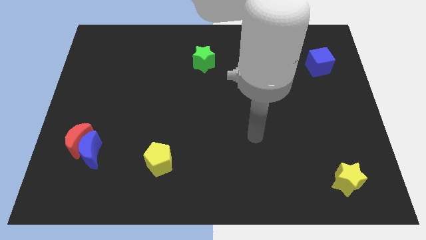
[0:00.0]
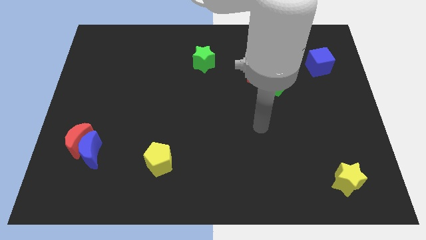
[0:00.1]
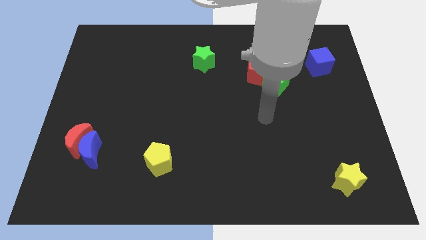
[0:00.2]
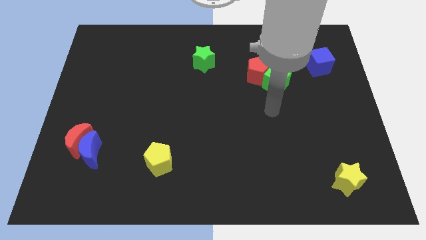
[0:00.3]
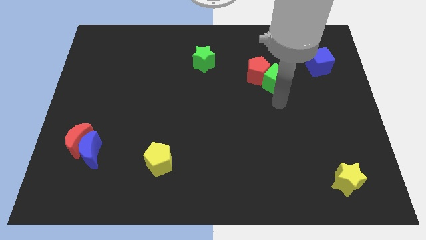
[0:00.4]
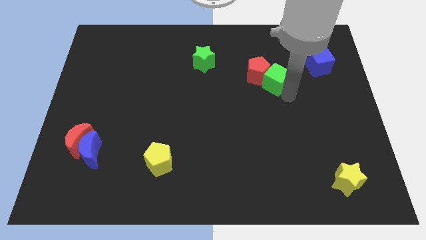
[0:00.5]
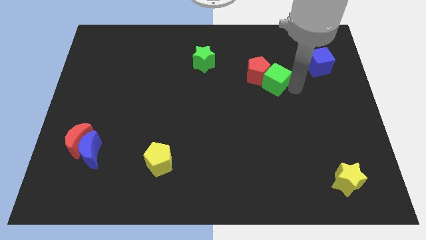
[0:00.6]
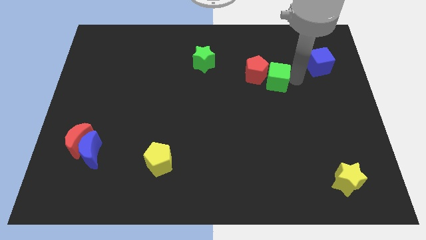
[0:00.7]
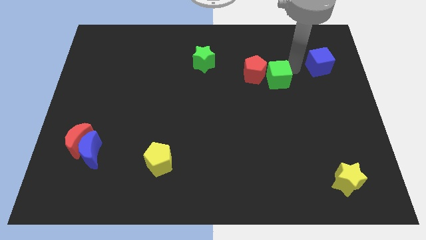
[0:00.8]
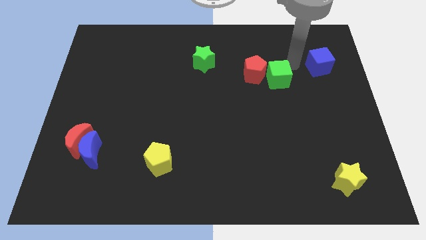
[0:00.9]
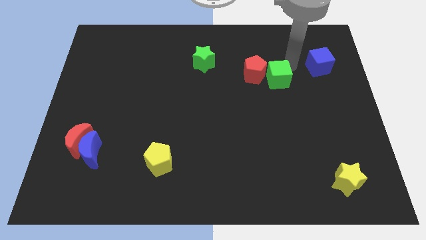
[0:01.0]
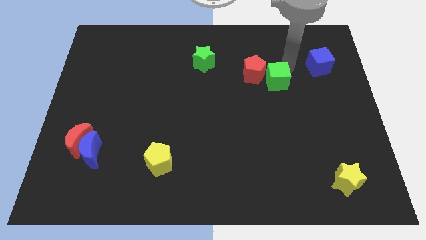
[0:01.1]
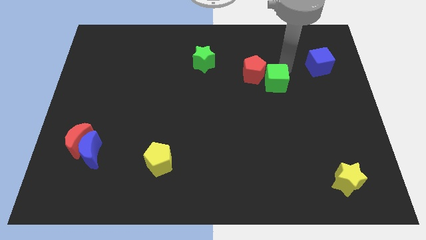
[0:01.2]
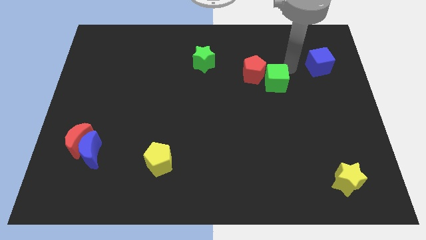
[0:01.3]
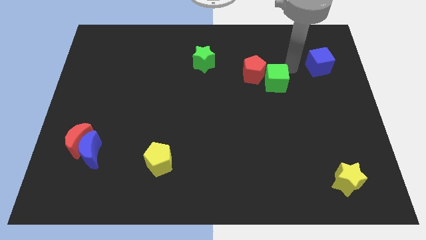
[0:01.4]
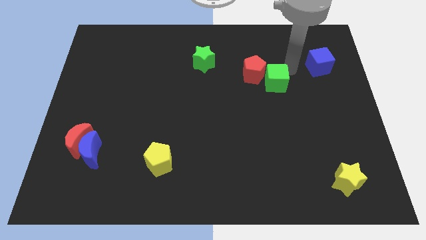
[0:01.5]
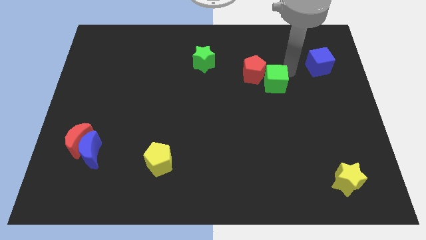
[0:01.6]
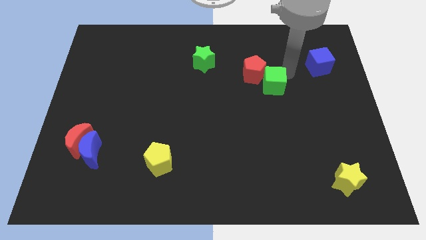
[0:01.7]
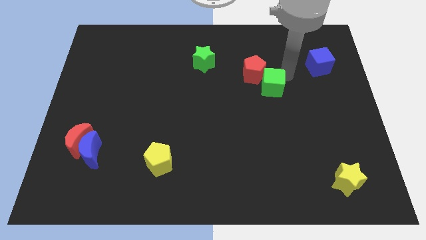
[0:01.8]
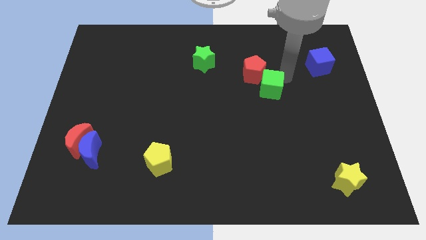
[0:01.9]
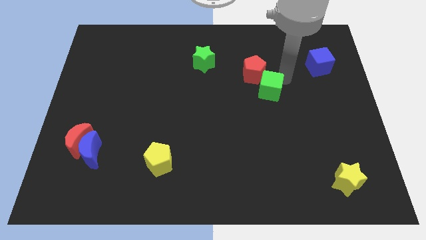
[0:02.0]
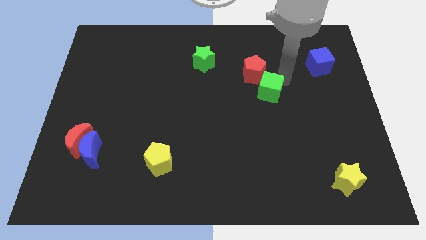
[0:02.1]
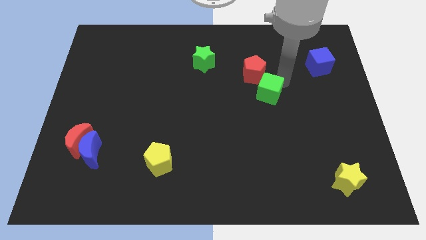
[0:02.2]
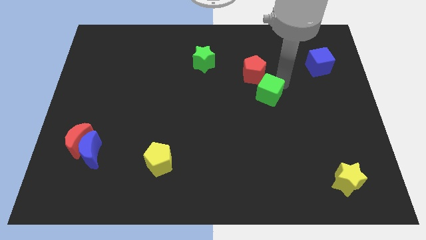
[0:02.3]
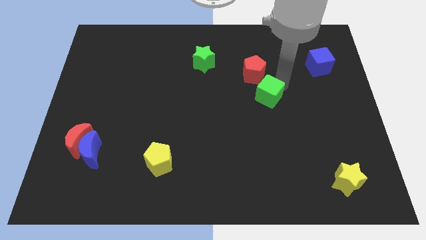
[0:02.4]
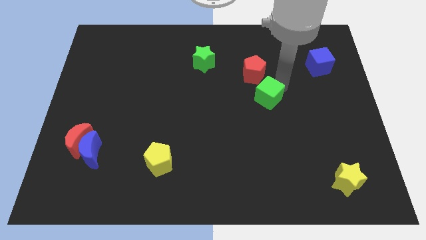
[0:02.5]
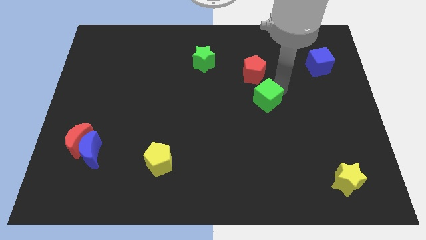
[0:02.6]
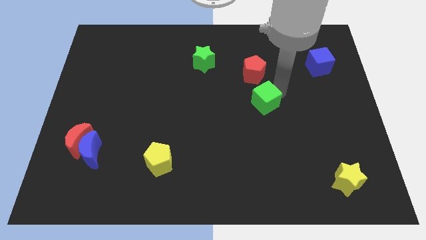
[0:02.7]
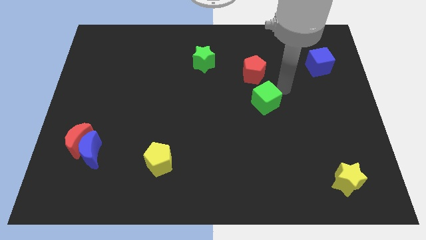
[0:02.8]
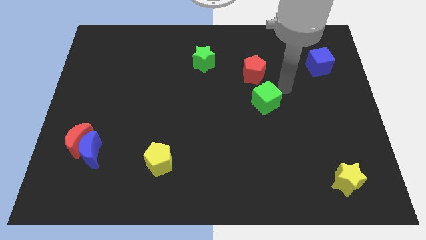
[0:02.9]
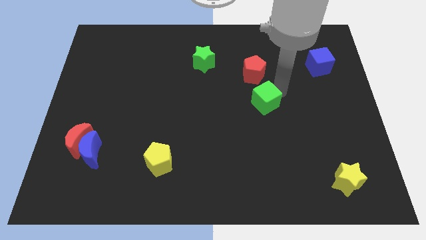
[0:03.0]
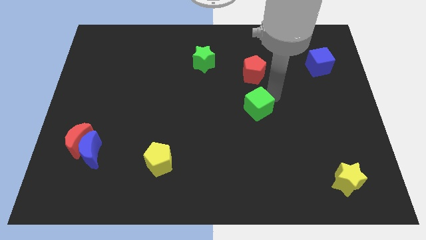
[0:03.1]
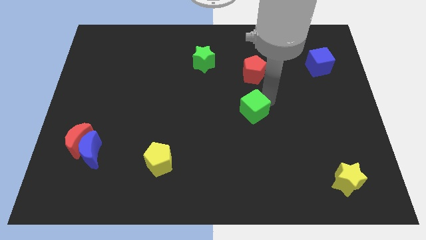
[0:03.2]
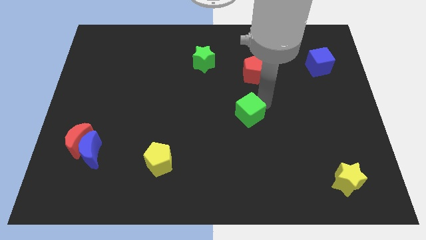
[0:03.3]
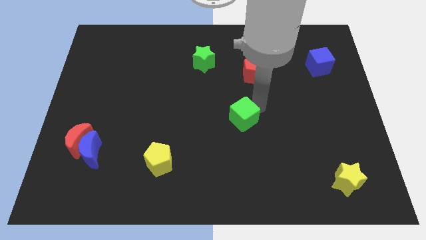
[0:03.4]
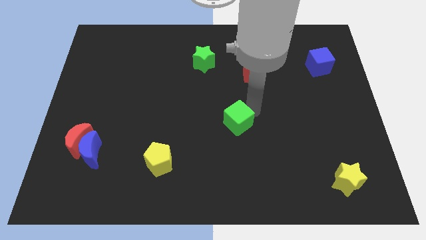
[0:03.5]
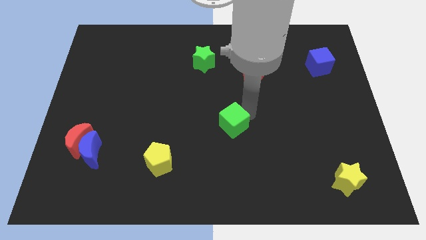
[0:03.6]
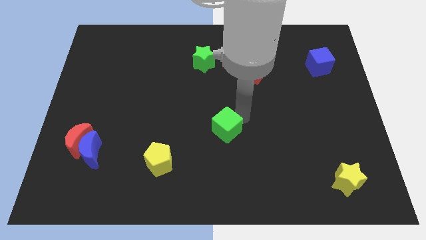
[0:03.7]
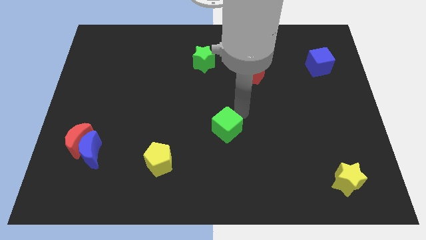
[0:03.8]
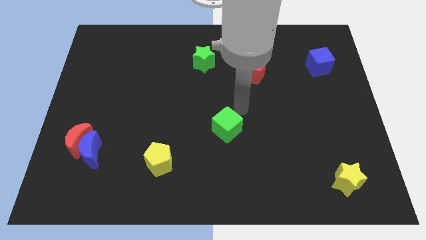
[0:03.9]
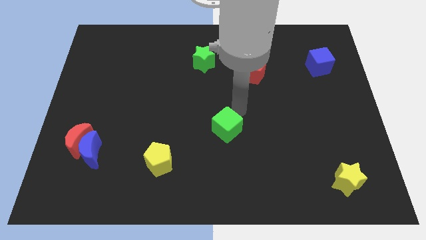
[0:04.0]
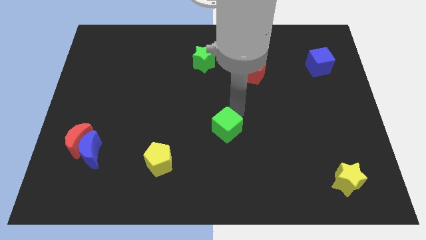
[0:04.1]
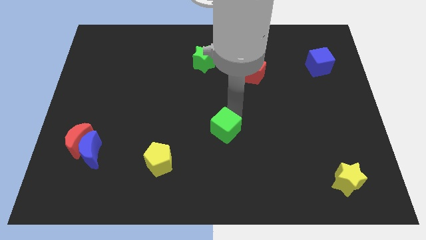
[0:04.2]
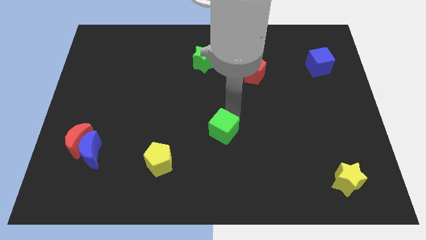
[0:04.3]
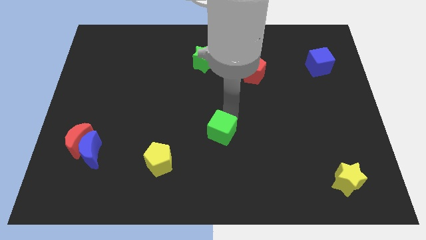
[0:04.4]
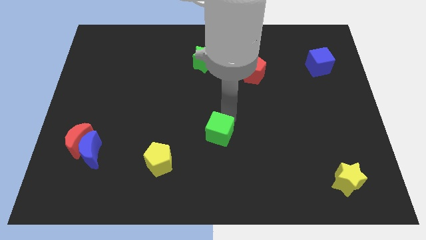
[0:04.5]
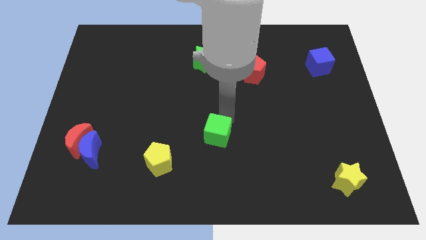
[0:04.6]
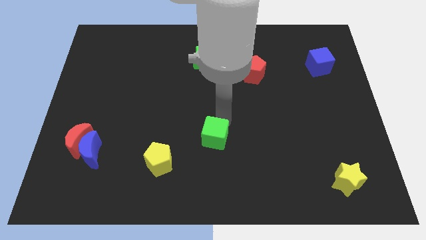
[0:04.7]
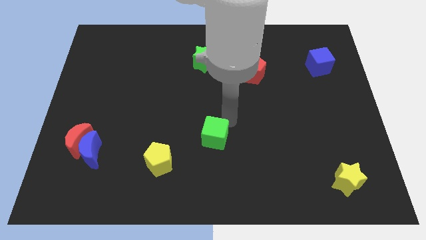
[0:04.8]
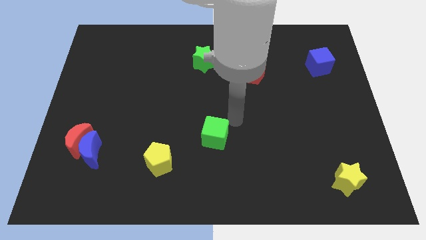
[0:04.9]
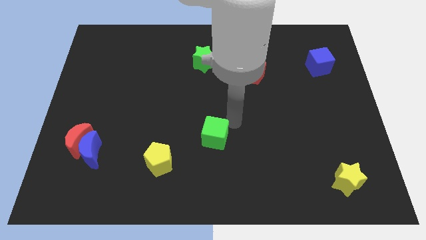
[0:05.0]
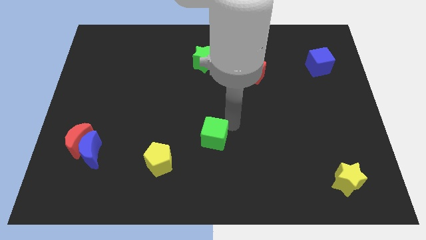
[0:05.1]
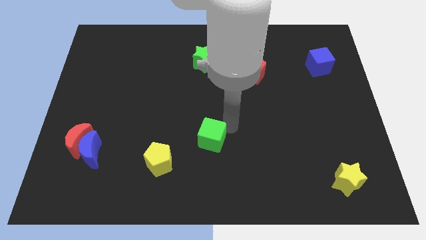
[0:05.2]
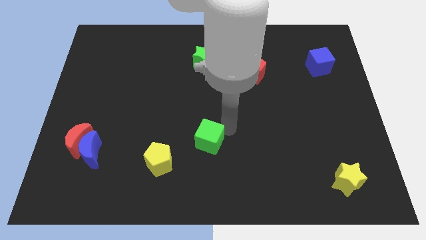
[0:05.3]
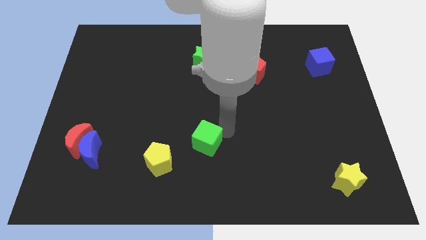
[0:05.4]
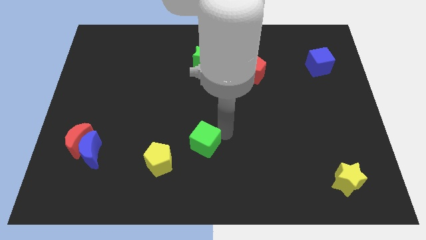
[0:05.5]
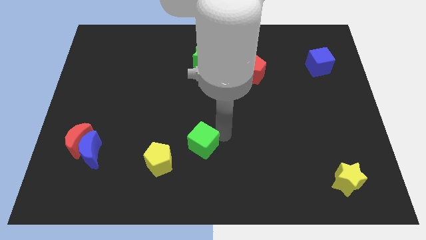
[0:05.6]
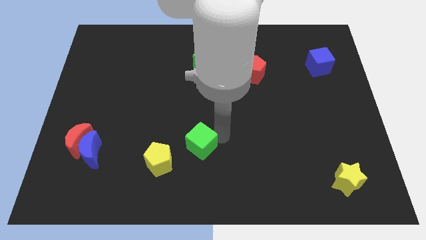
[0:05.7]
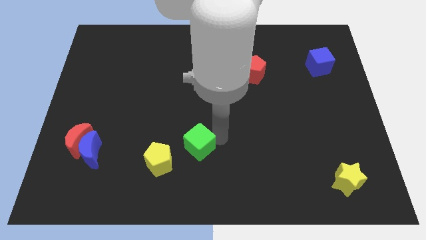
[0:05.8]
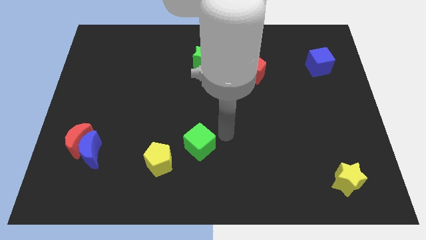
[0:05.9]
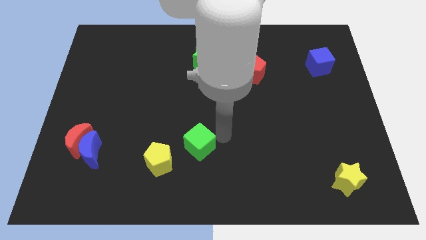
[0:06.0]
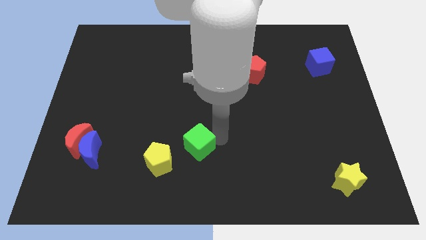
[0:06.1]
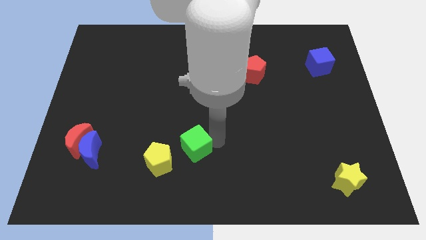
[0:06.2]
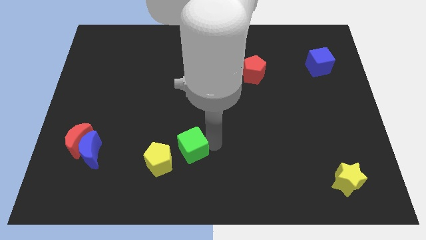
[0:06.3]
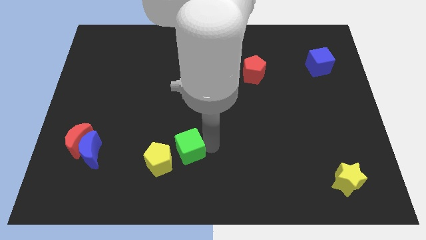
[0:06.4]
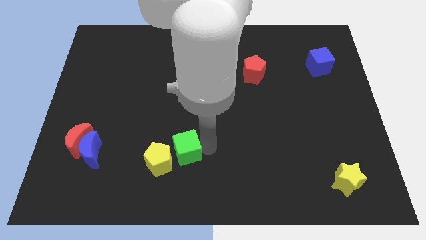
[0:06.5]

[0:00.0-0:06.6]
slide the green cube towards the yellow pentagon

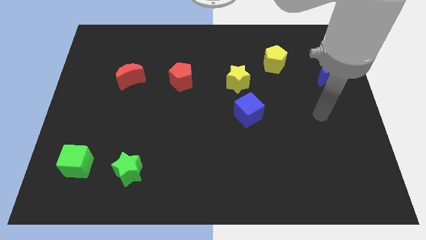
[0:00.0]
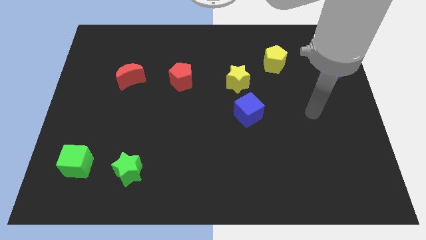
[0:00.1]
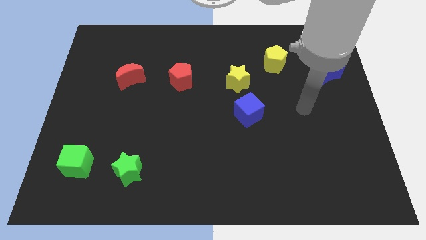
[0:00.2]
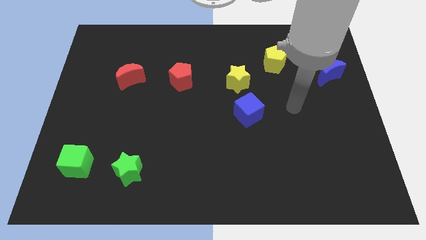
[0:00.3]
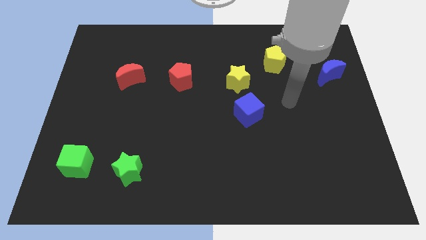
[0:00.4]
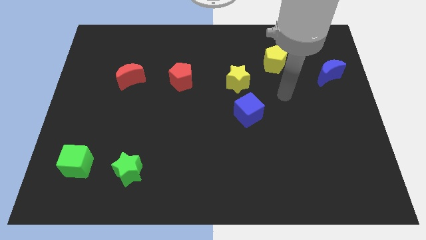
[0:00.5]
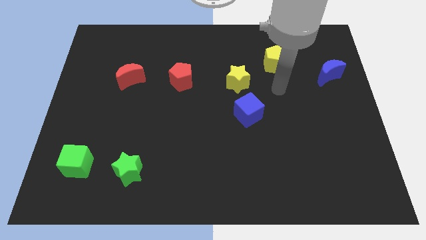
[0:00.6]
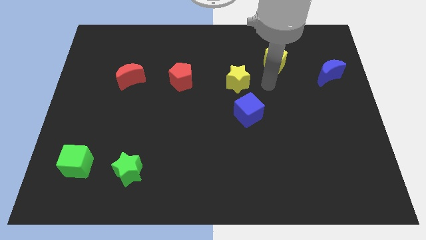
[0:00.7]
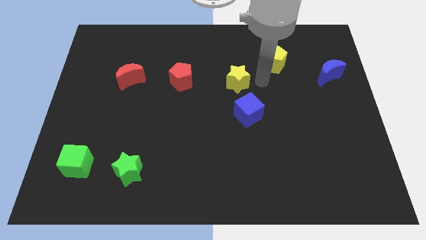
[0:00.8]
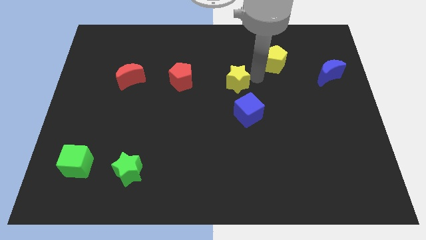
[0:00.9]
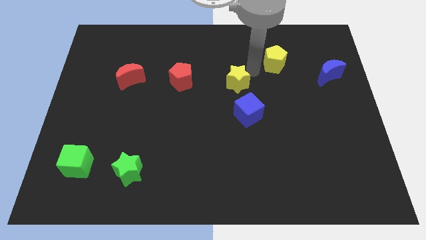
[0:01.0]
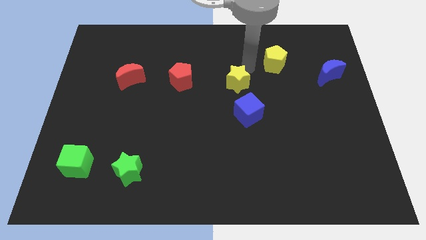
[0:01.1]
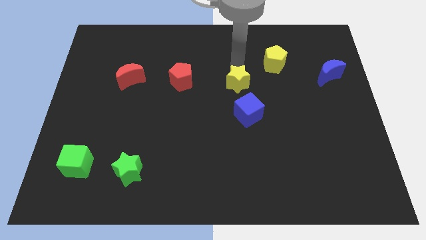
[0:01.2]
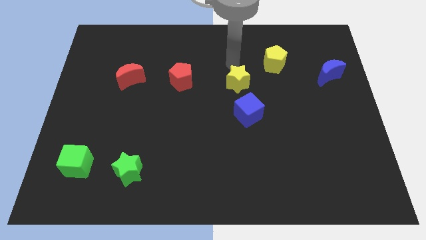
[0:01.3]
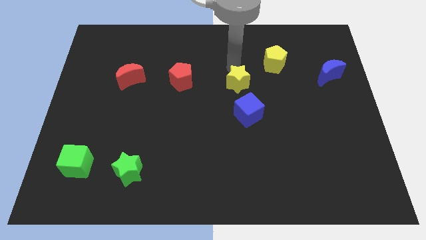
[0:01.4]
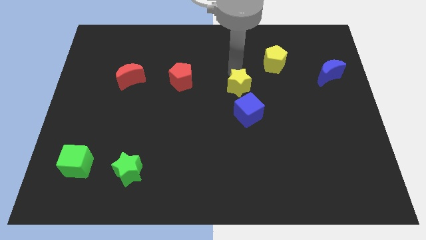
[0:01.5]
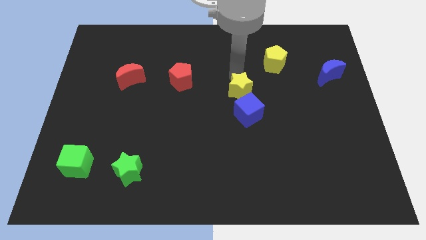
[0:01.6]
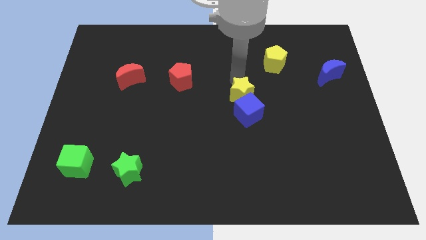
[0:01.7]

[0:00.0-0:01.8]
slide the yellow star next to the blue cube
